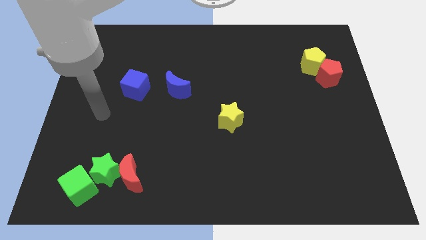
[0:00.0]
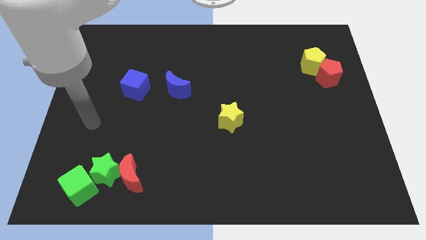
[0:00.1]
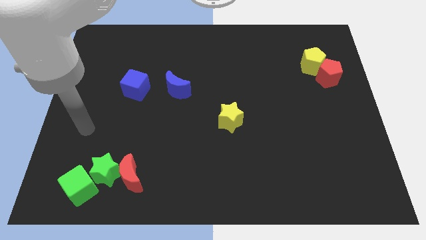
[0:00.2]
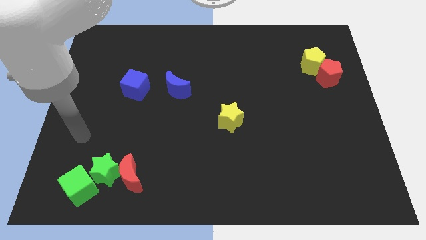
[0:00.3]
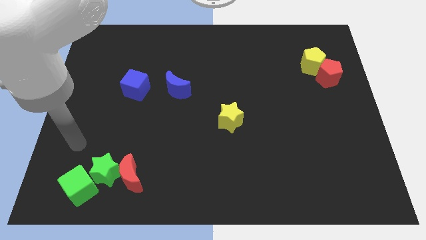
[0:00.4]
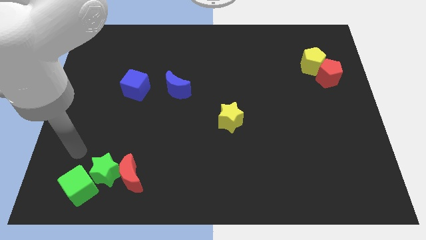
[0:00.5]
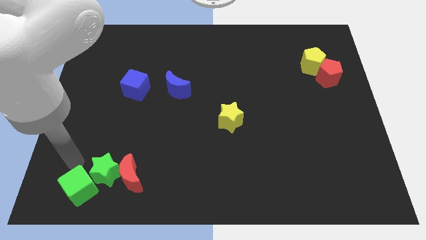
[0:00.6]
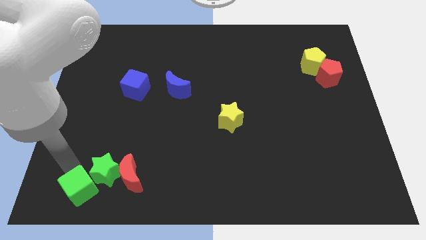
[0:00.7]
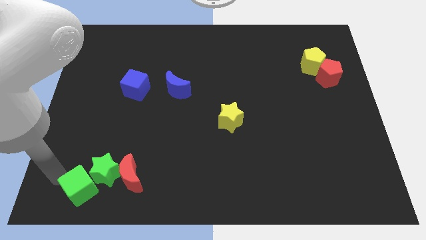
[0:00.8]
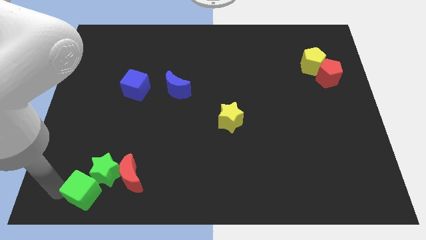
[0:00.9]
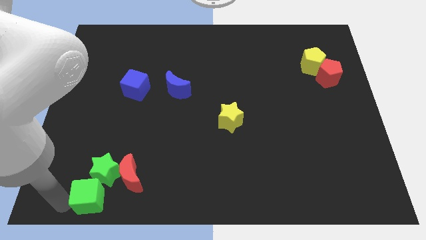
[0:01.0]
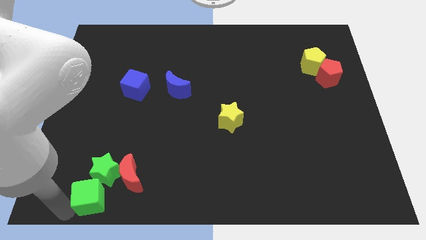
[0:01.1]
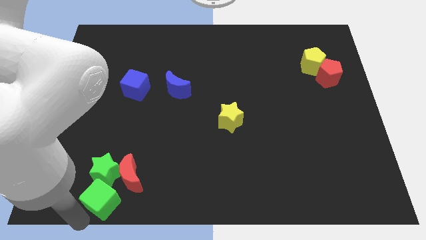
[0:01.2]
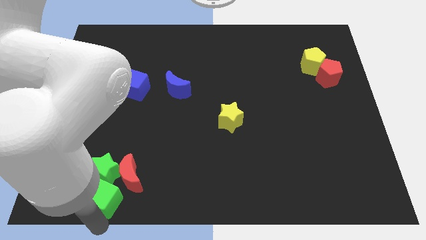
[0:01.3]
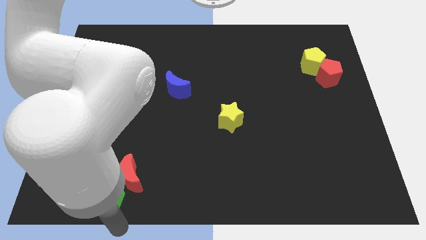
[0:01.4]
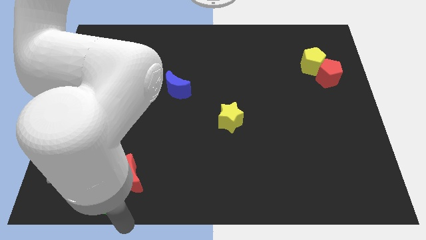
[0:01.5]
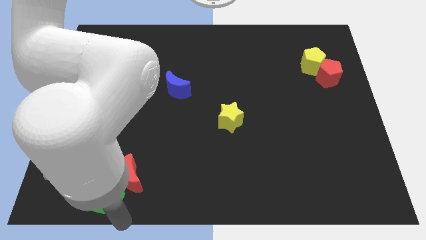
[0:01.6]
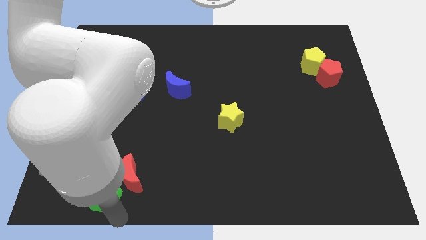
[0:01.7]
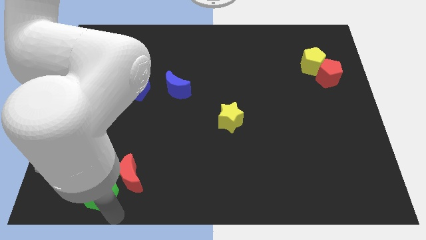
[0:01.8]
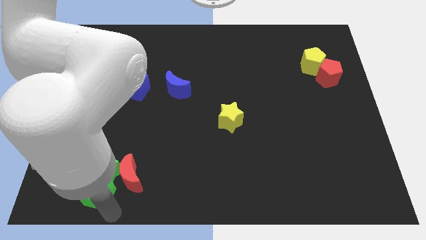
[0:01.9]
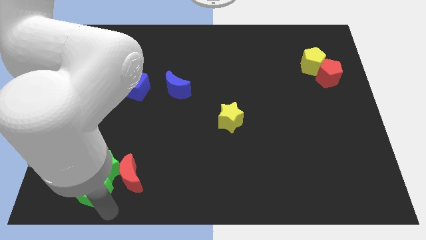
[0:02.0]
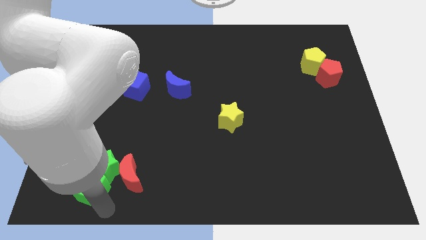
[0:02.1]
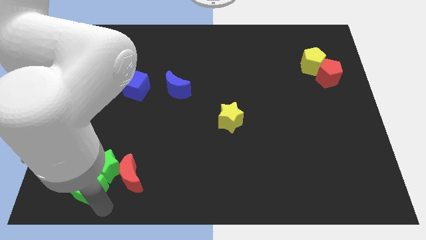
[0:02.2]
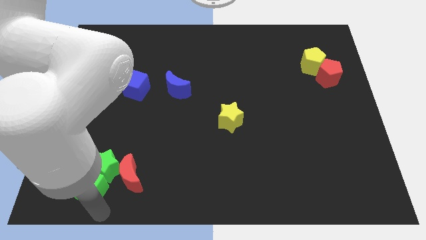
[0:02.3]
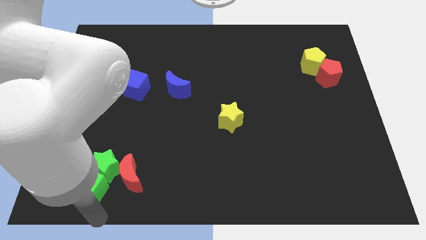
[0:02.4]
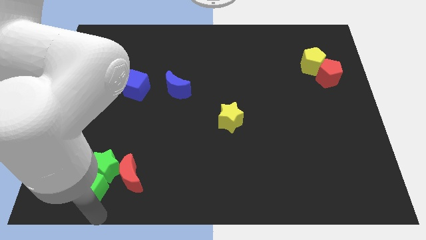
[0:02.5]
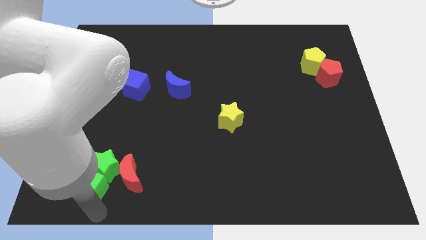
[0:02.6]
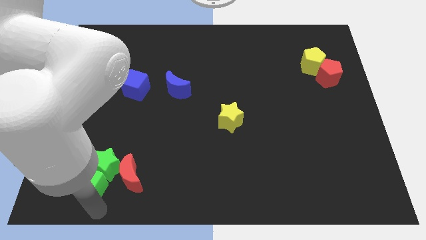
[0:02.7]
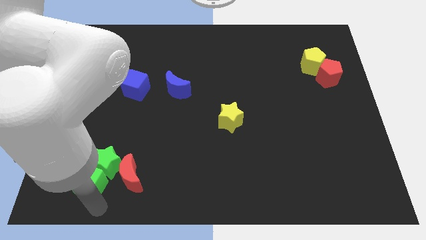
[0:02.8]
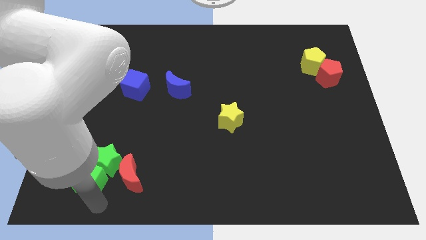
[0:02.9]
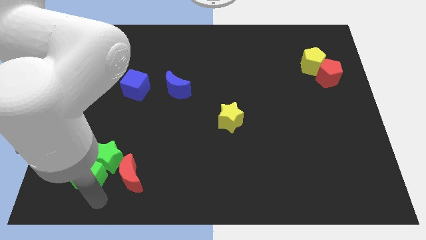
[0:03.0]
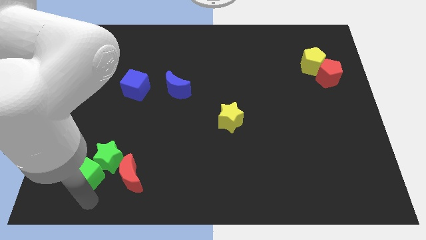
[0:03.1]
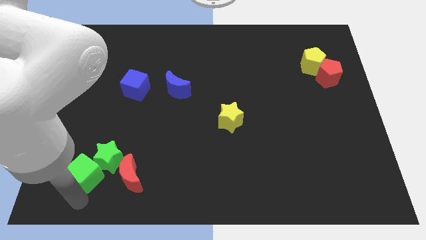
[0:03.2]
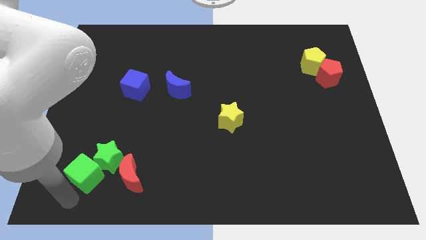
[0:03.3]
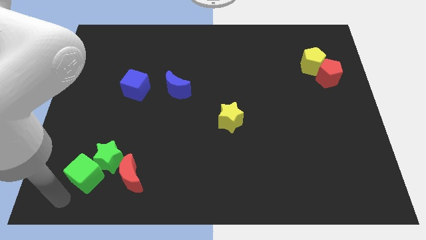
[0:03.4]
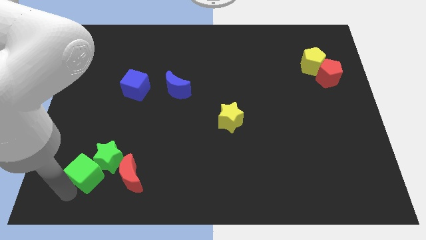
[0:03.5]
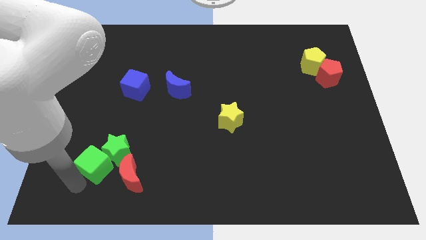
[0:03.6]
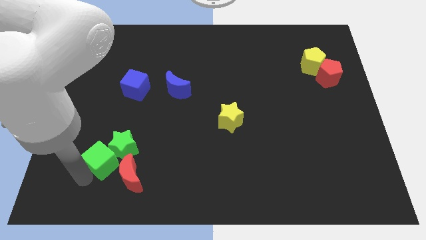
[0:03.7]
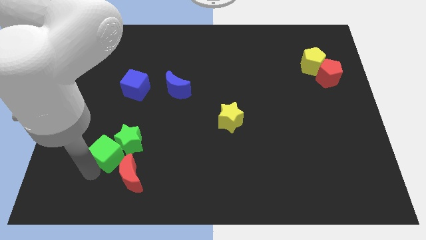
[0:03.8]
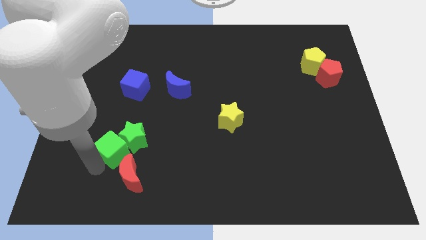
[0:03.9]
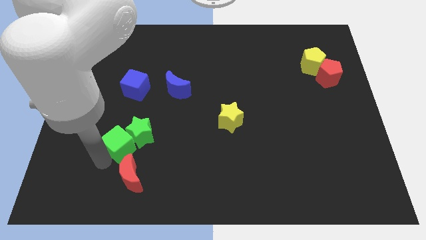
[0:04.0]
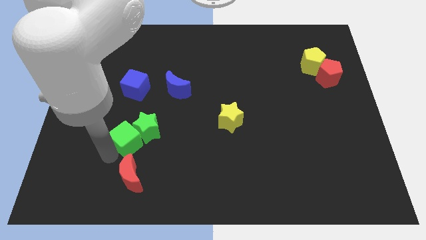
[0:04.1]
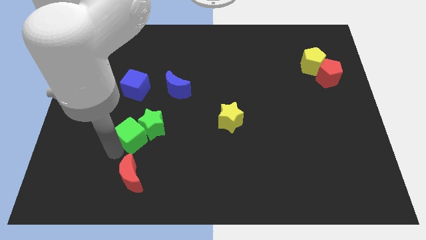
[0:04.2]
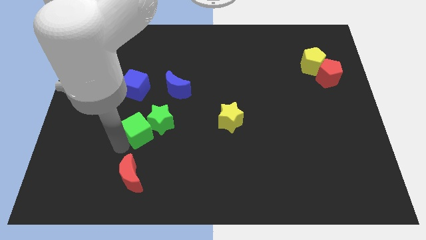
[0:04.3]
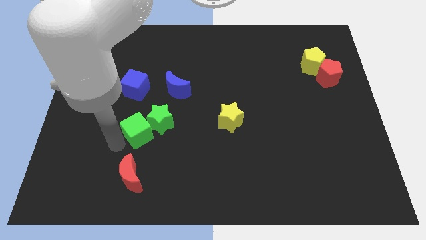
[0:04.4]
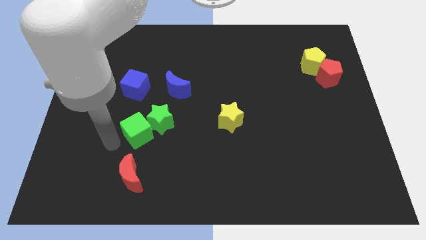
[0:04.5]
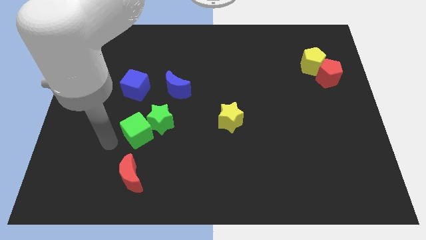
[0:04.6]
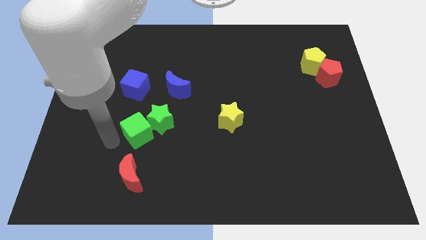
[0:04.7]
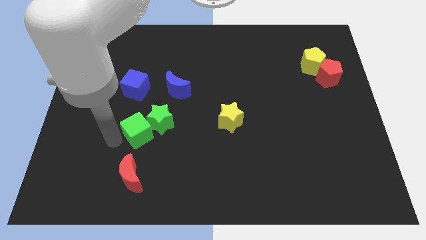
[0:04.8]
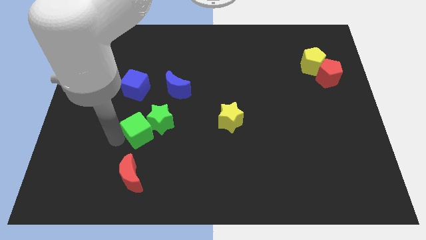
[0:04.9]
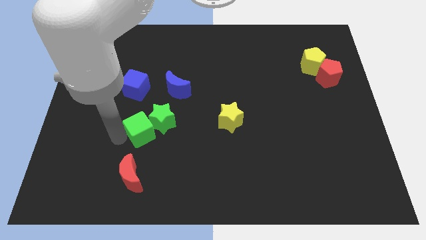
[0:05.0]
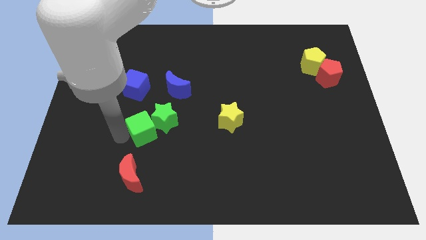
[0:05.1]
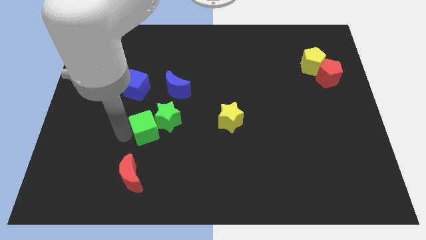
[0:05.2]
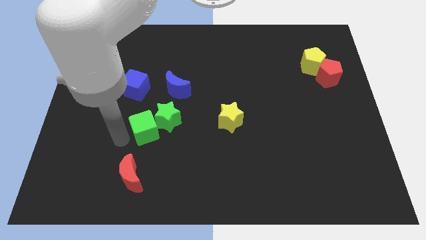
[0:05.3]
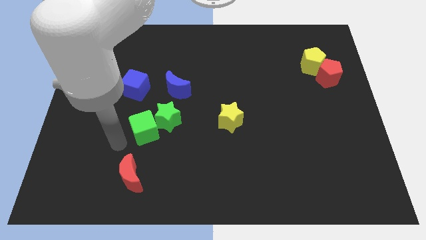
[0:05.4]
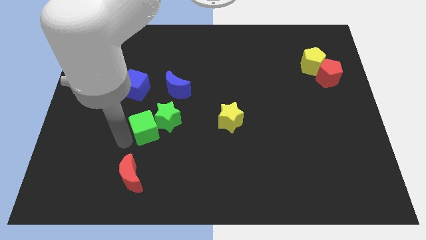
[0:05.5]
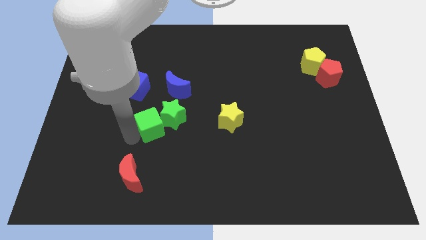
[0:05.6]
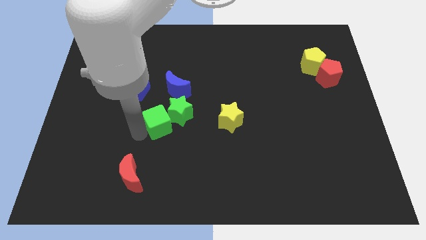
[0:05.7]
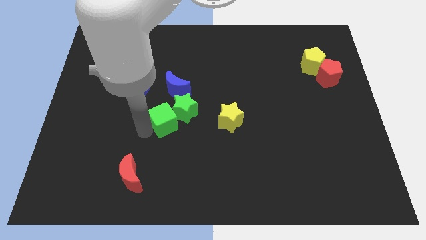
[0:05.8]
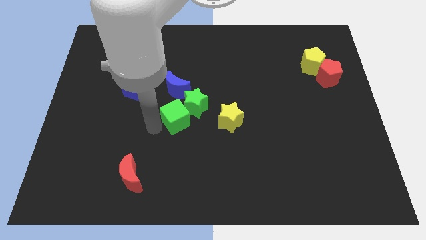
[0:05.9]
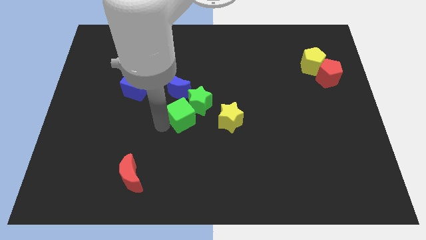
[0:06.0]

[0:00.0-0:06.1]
put the green cube diagonally down and to the right of the blue moon

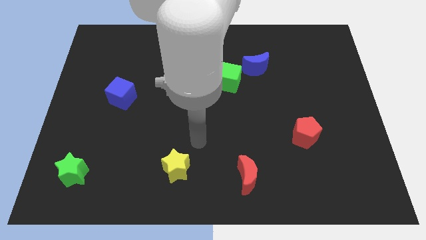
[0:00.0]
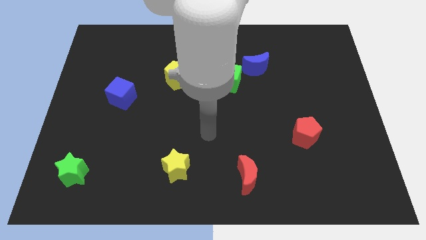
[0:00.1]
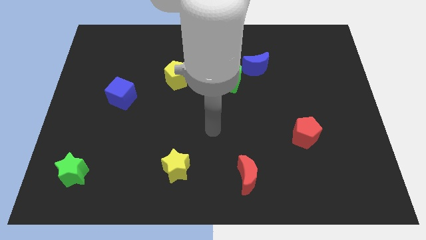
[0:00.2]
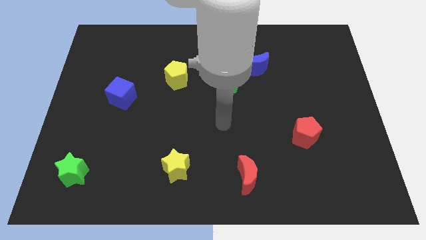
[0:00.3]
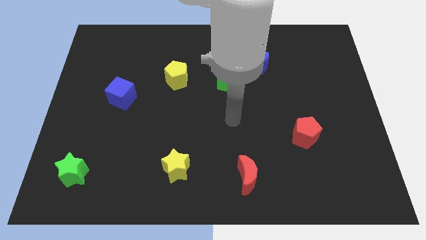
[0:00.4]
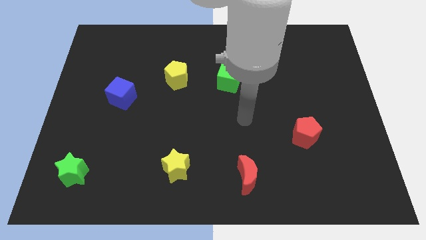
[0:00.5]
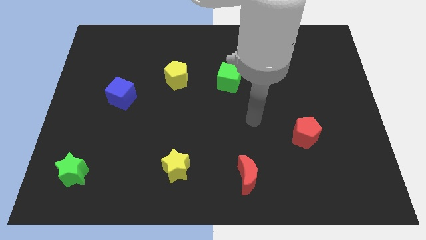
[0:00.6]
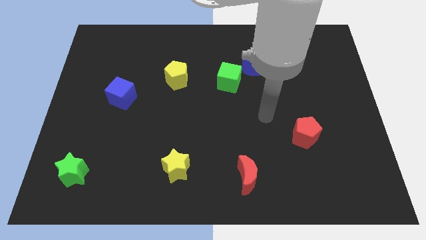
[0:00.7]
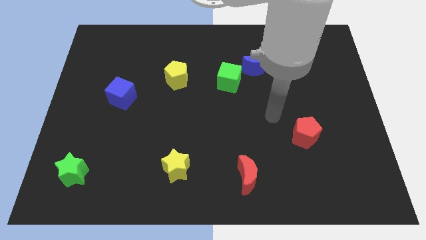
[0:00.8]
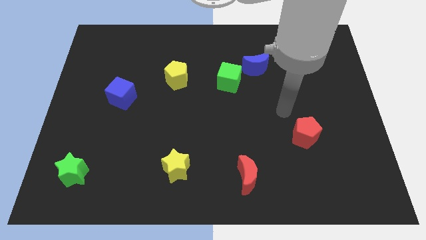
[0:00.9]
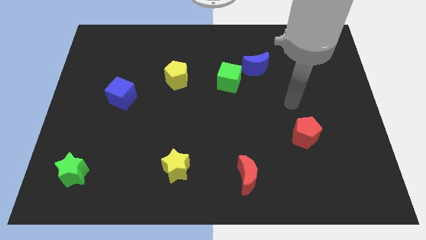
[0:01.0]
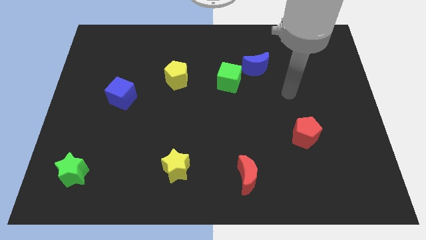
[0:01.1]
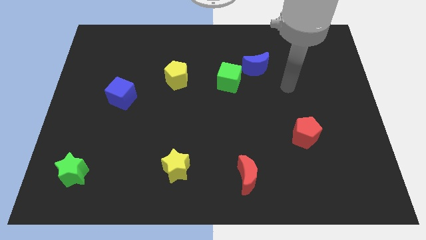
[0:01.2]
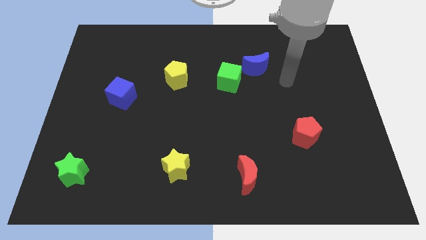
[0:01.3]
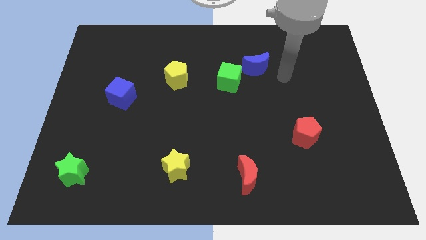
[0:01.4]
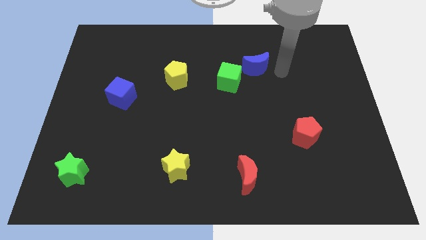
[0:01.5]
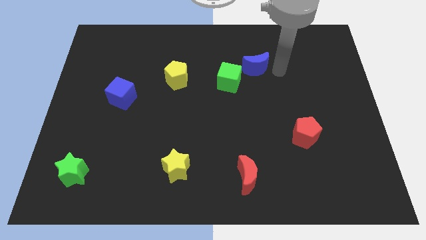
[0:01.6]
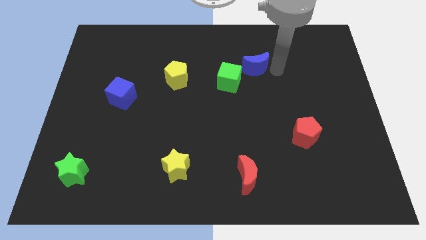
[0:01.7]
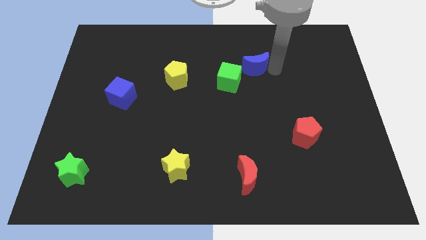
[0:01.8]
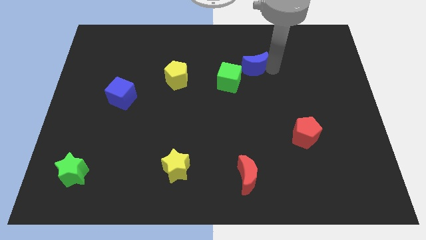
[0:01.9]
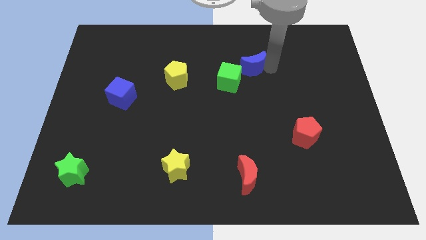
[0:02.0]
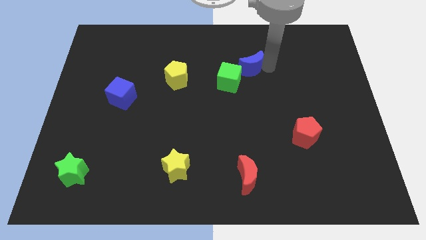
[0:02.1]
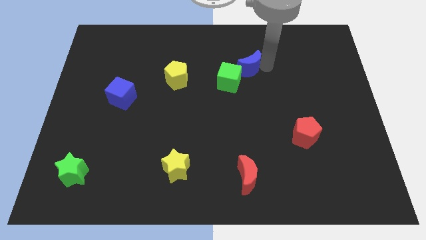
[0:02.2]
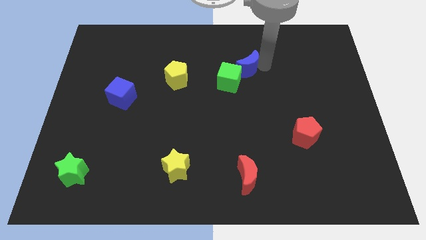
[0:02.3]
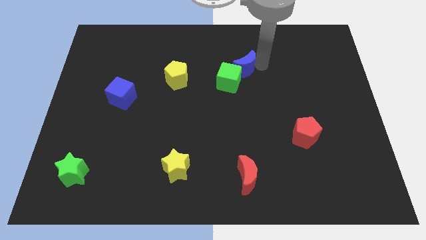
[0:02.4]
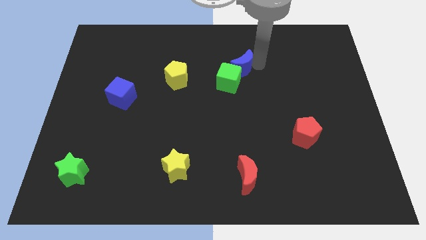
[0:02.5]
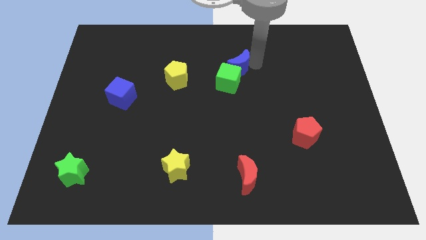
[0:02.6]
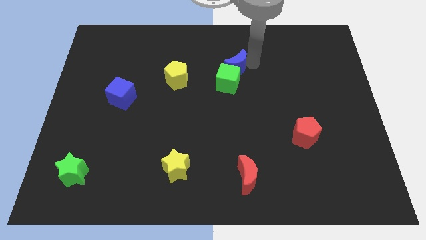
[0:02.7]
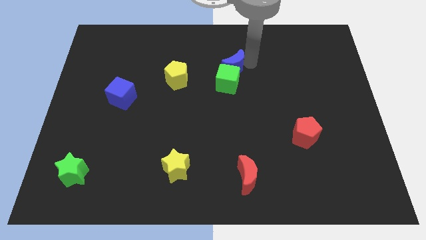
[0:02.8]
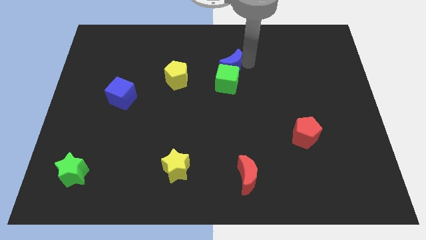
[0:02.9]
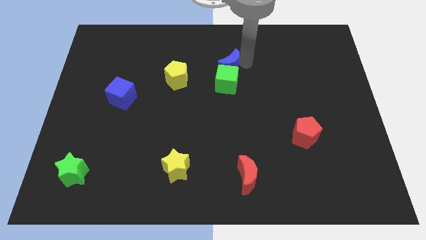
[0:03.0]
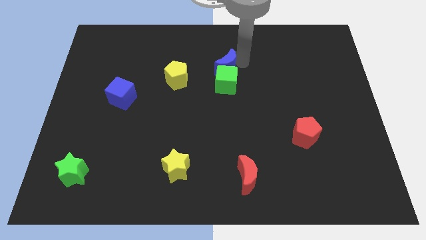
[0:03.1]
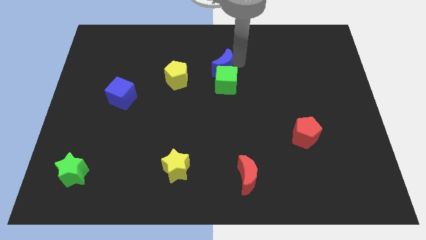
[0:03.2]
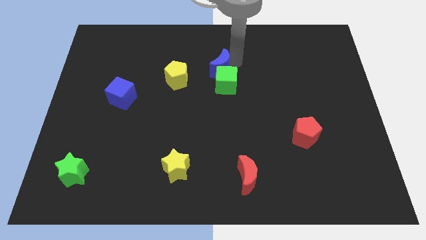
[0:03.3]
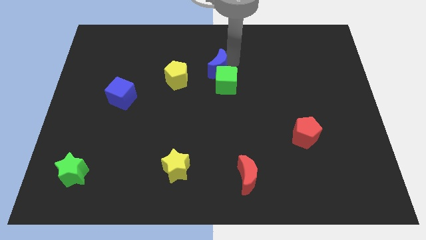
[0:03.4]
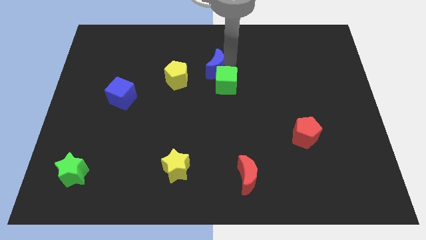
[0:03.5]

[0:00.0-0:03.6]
slide the blue moon to the top right side of the yellow pentagon
